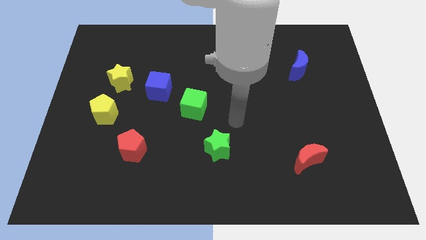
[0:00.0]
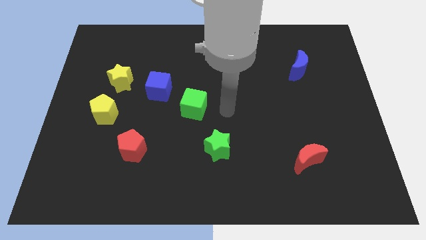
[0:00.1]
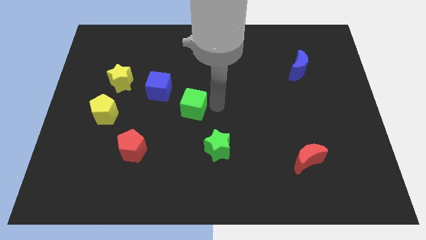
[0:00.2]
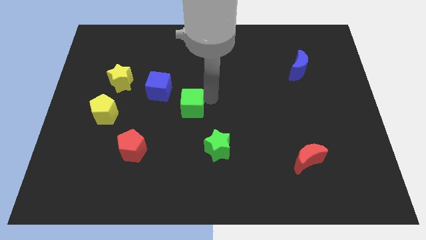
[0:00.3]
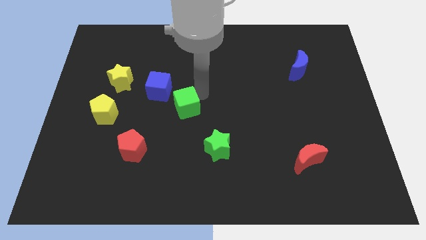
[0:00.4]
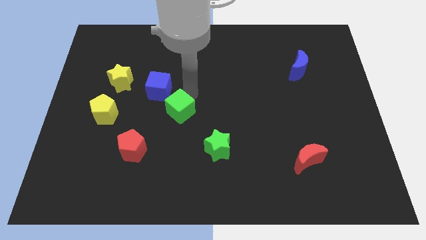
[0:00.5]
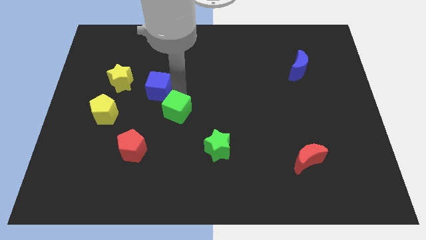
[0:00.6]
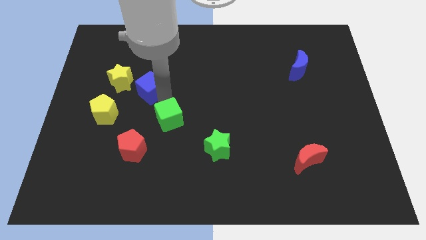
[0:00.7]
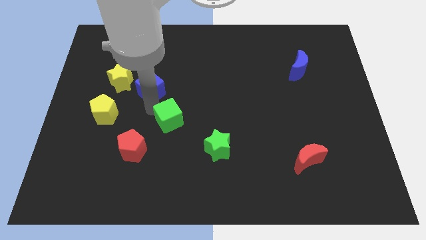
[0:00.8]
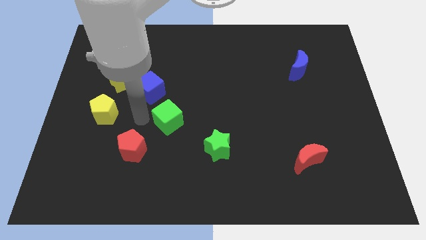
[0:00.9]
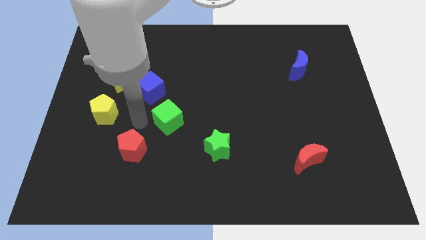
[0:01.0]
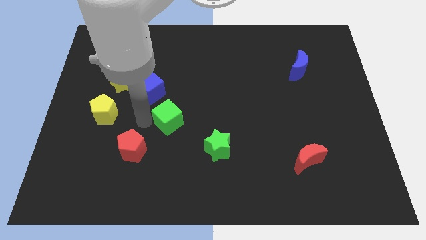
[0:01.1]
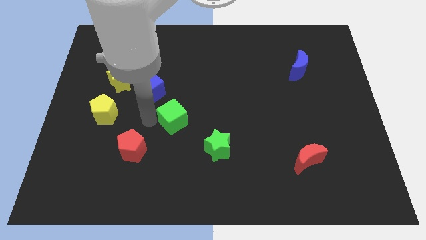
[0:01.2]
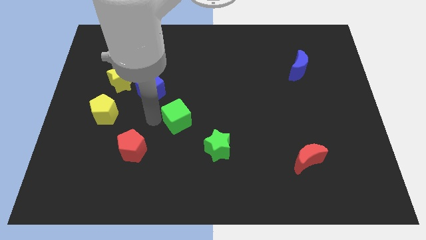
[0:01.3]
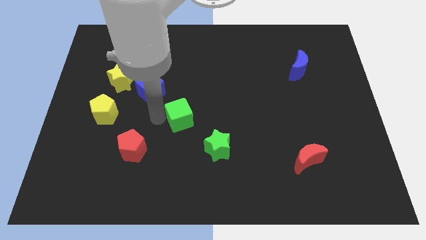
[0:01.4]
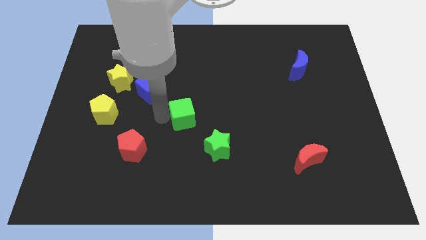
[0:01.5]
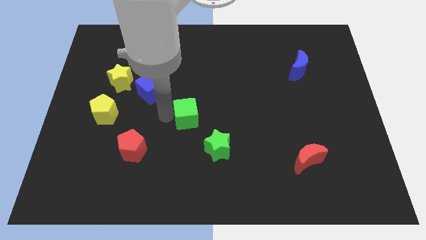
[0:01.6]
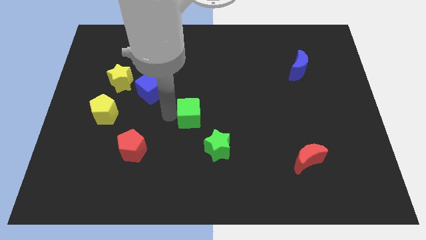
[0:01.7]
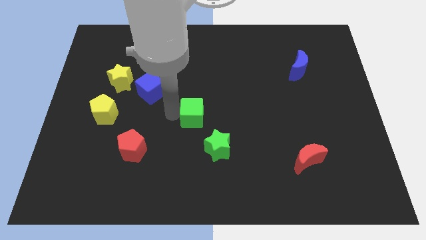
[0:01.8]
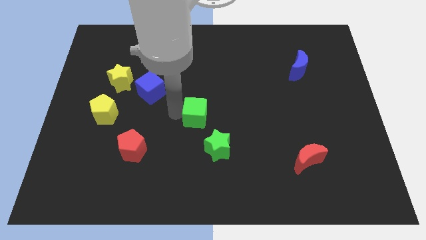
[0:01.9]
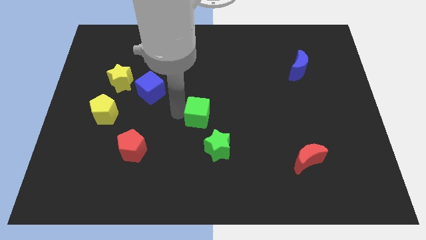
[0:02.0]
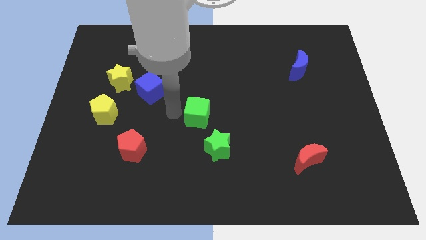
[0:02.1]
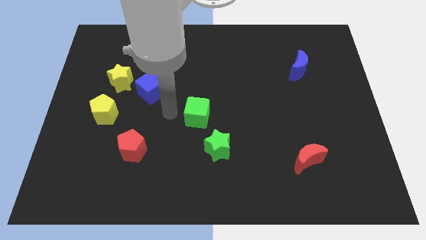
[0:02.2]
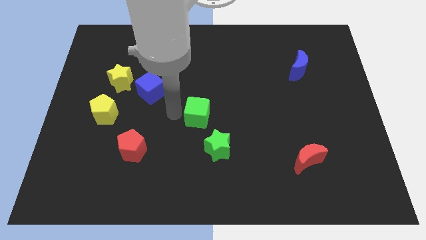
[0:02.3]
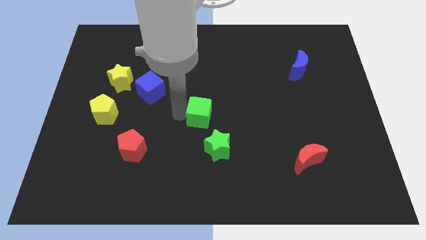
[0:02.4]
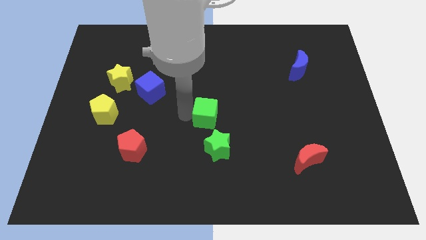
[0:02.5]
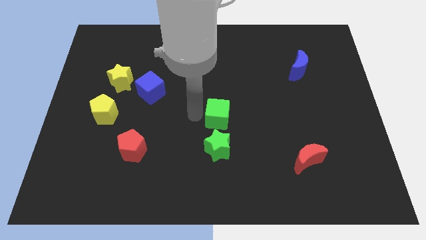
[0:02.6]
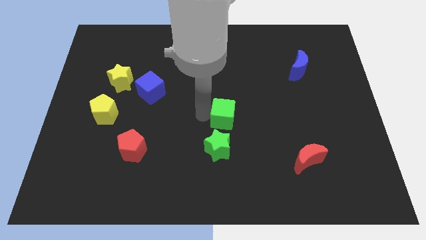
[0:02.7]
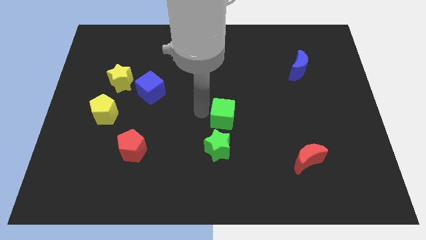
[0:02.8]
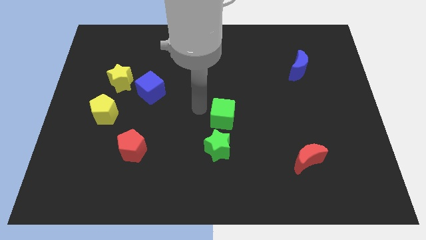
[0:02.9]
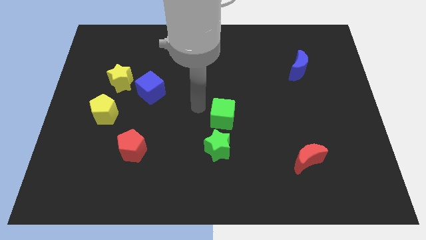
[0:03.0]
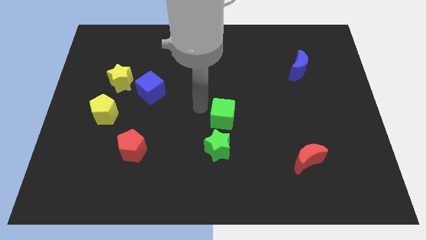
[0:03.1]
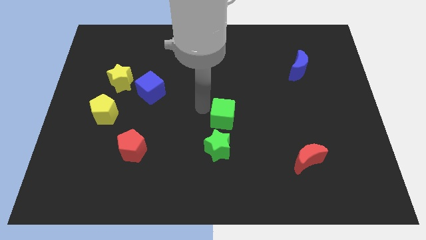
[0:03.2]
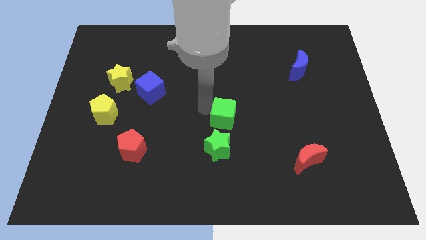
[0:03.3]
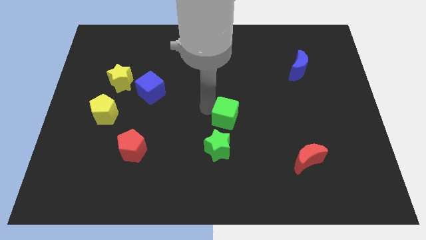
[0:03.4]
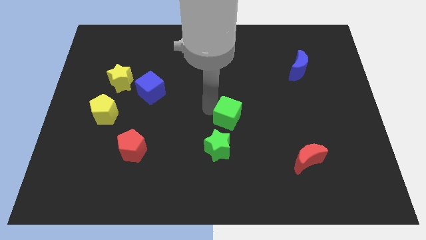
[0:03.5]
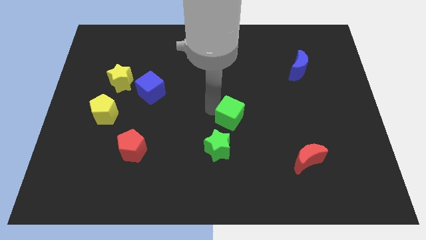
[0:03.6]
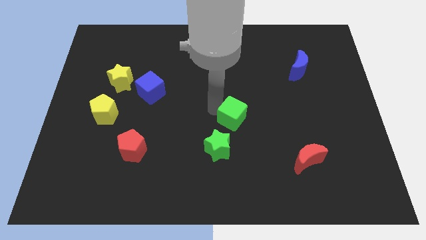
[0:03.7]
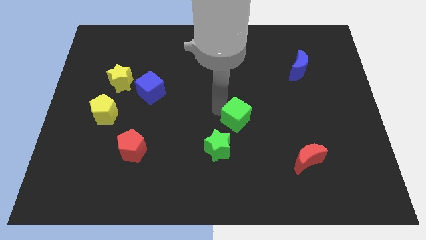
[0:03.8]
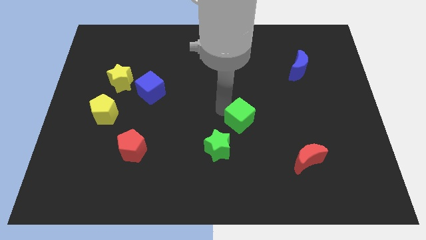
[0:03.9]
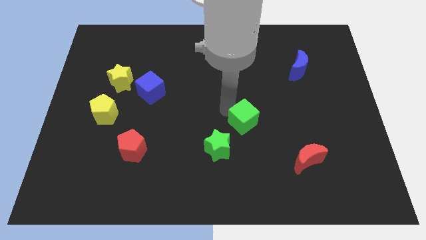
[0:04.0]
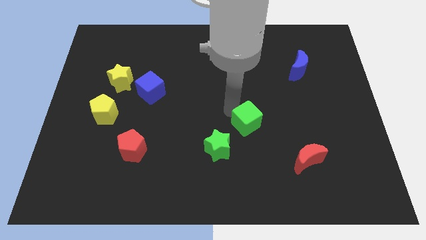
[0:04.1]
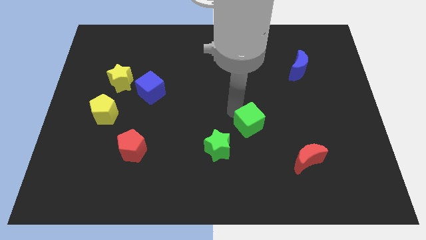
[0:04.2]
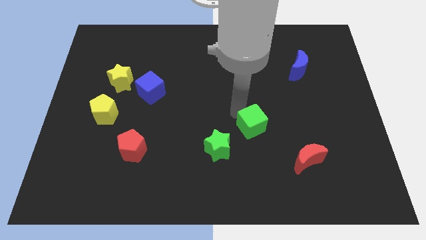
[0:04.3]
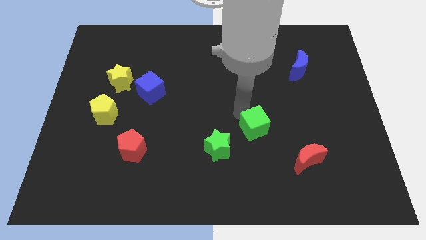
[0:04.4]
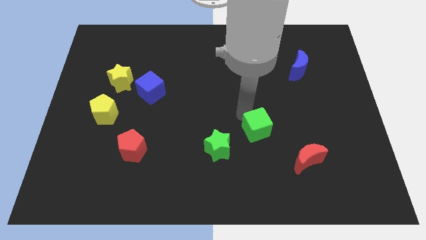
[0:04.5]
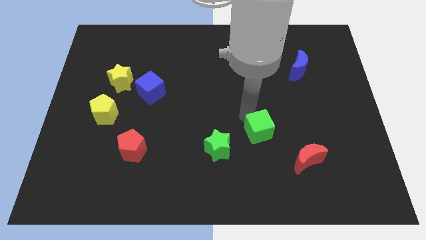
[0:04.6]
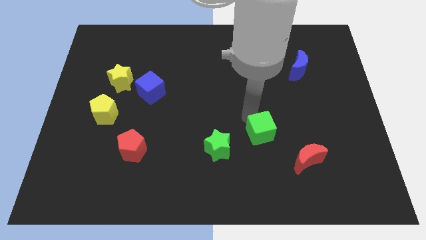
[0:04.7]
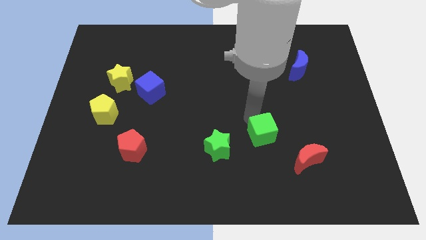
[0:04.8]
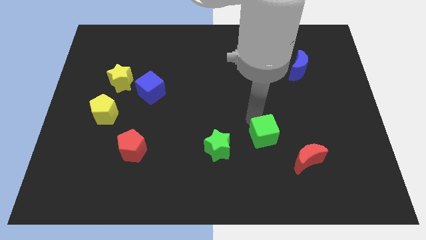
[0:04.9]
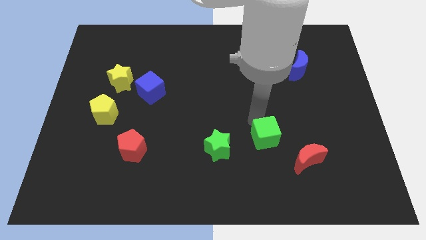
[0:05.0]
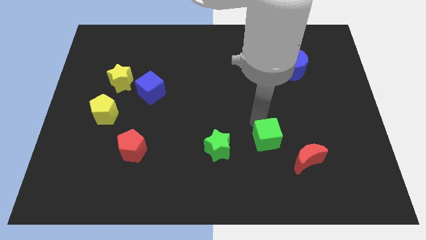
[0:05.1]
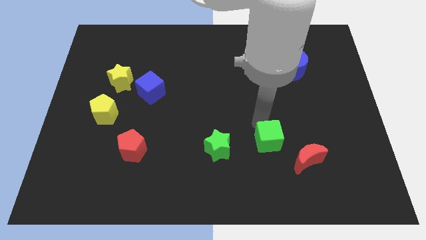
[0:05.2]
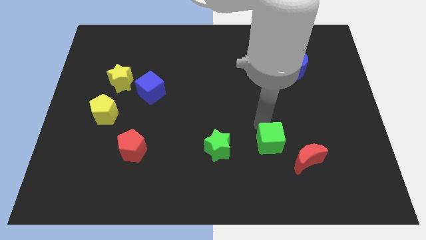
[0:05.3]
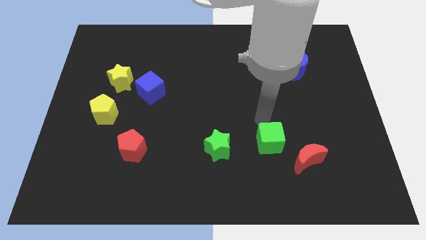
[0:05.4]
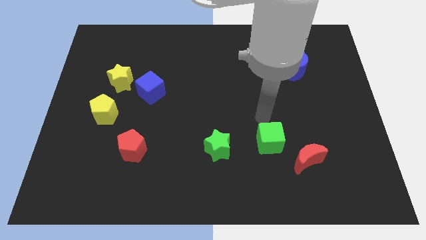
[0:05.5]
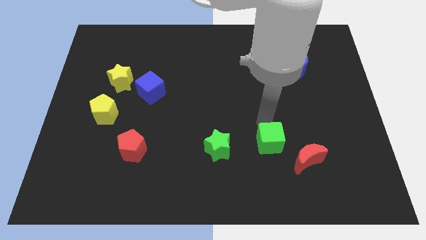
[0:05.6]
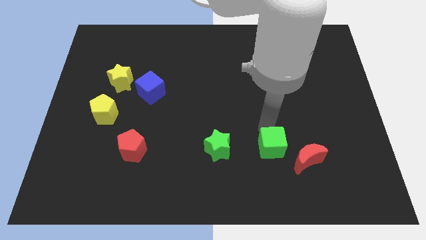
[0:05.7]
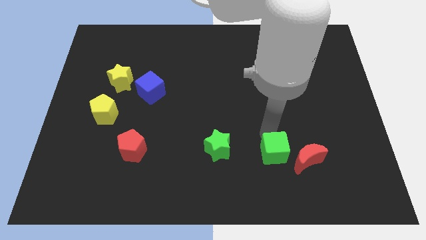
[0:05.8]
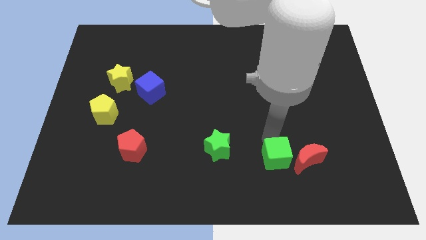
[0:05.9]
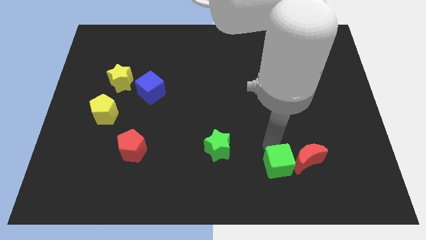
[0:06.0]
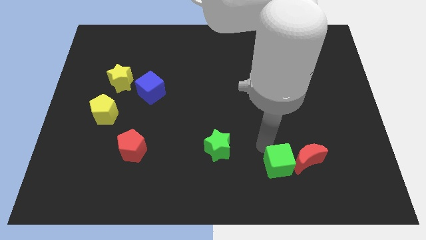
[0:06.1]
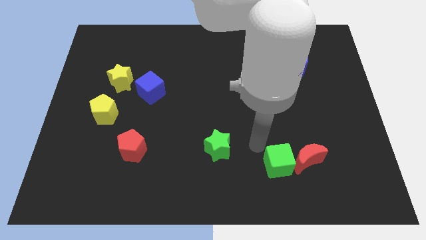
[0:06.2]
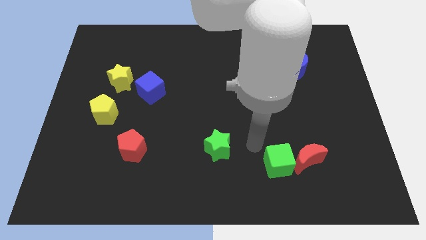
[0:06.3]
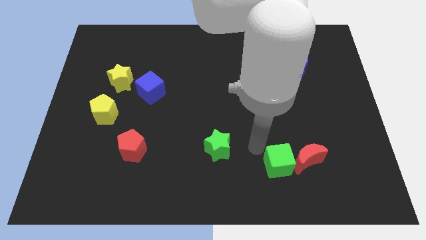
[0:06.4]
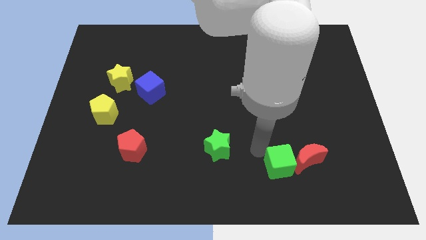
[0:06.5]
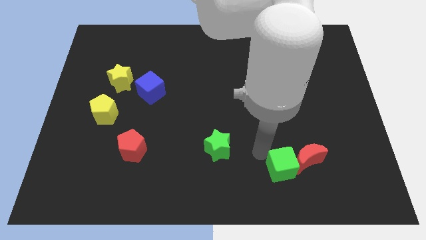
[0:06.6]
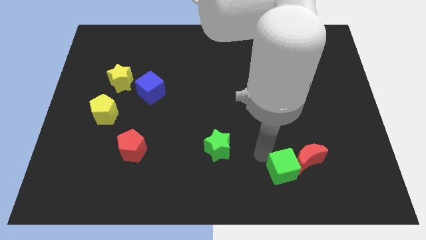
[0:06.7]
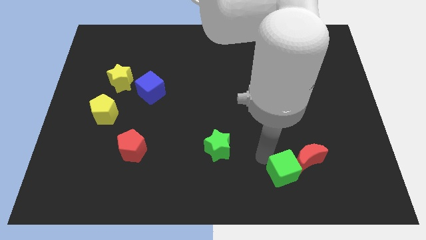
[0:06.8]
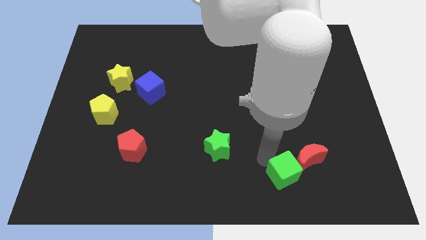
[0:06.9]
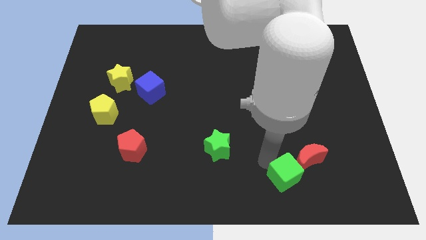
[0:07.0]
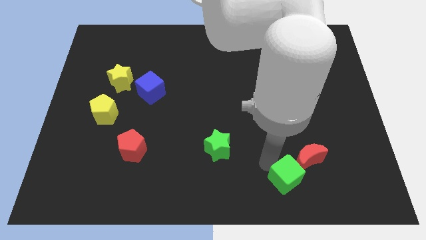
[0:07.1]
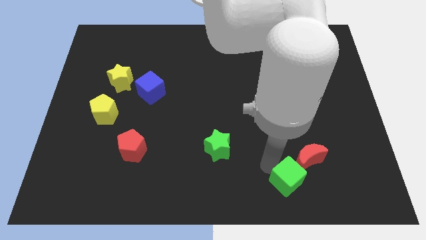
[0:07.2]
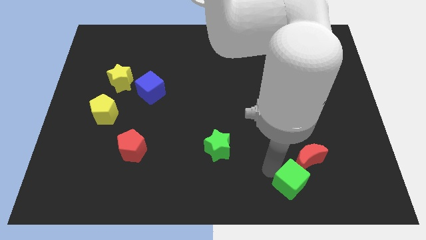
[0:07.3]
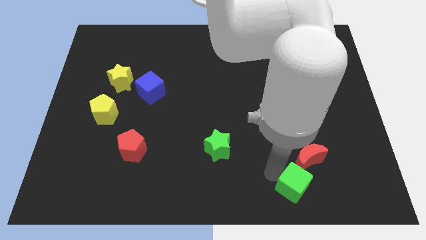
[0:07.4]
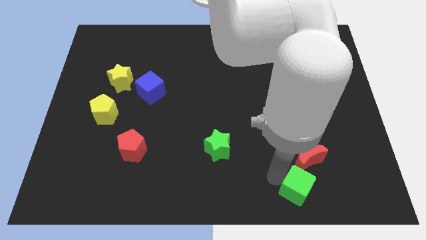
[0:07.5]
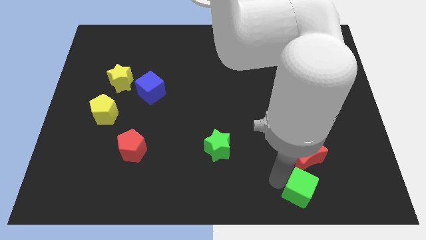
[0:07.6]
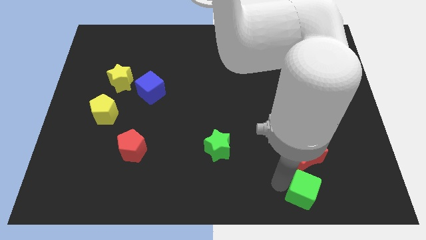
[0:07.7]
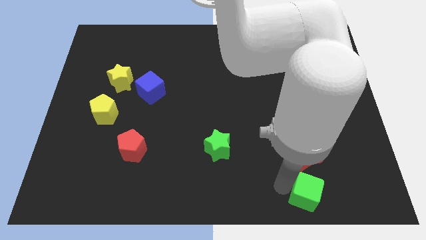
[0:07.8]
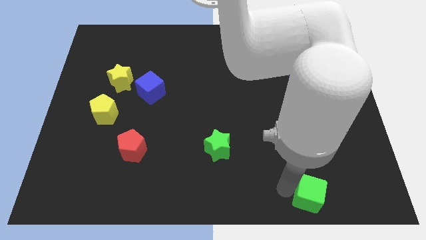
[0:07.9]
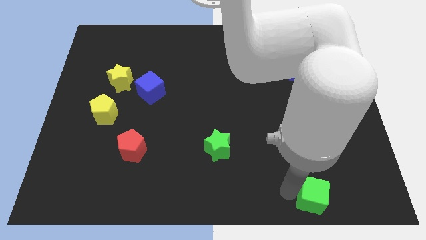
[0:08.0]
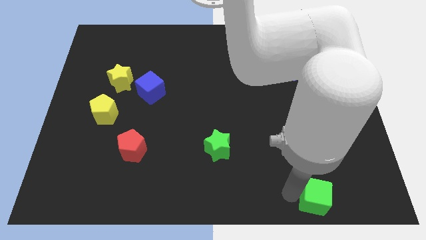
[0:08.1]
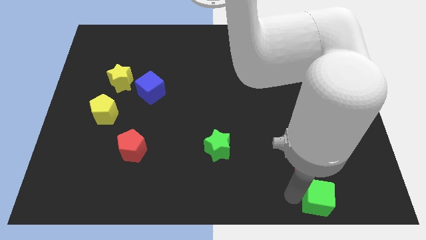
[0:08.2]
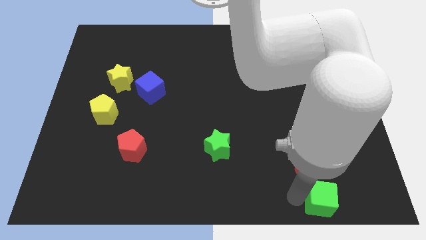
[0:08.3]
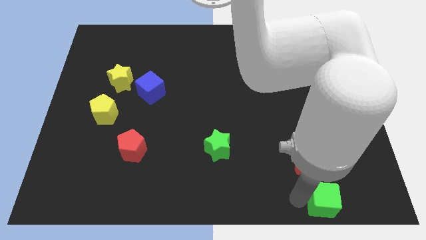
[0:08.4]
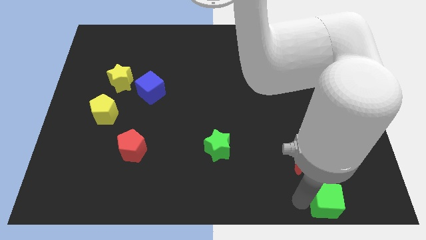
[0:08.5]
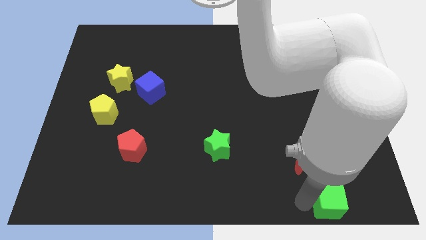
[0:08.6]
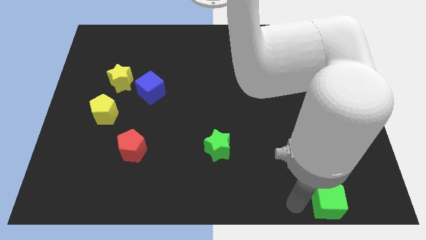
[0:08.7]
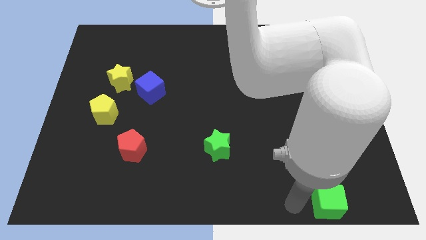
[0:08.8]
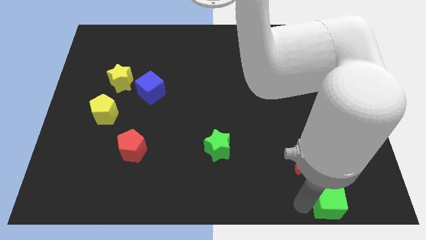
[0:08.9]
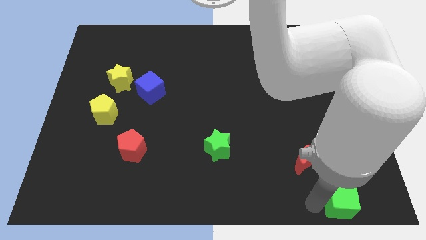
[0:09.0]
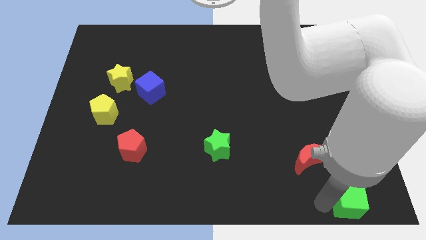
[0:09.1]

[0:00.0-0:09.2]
move the green cube to the bottom right corner
